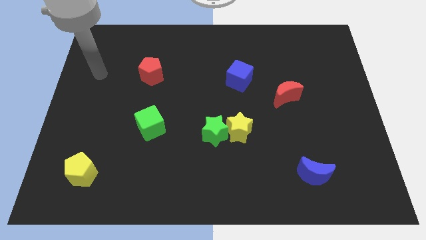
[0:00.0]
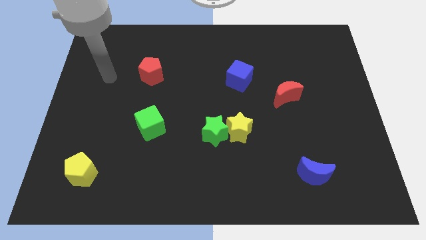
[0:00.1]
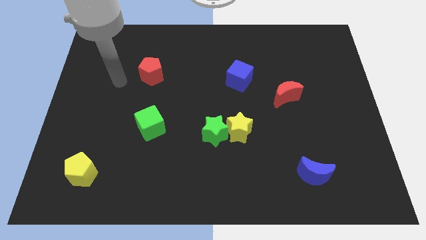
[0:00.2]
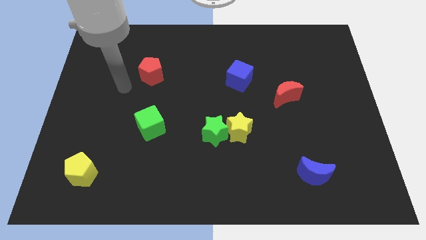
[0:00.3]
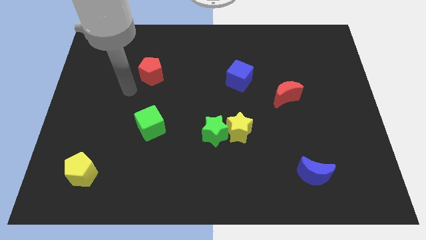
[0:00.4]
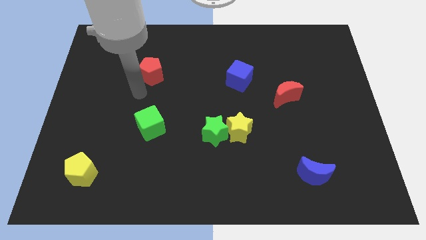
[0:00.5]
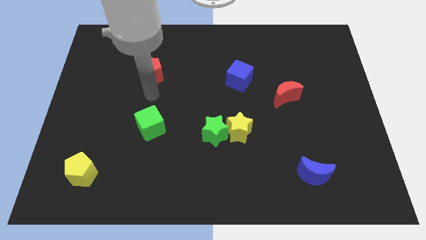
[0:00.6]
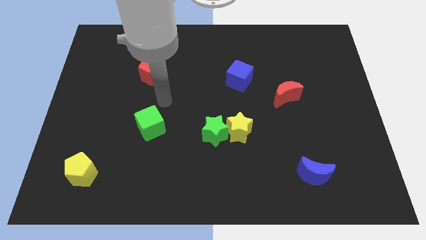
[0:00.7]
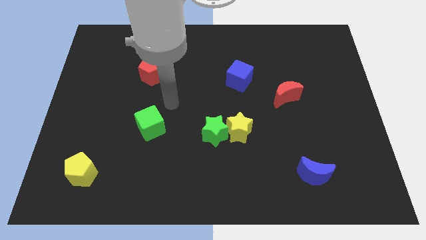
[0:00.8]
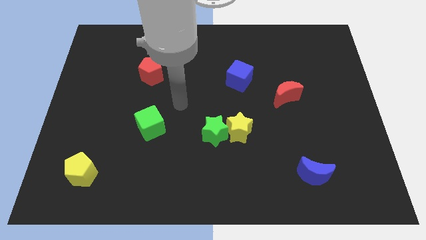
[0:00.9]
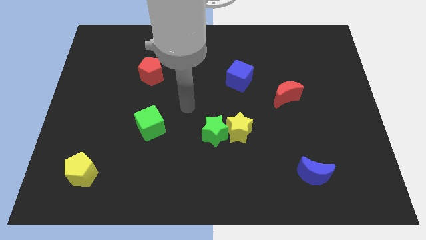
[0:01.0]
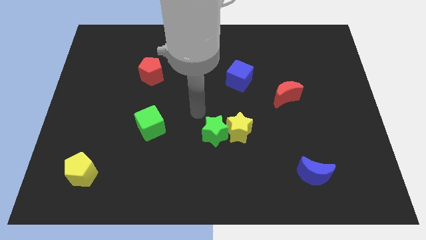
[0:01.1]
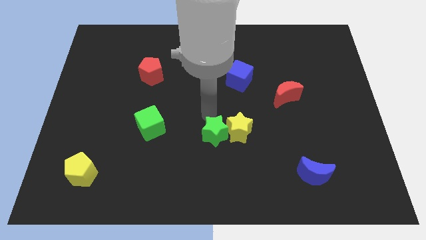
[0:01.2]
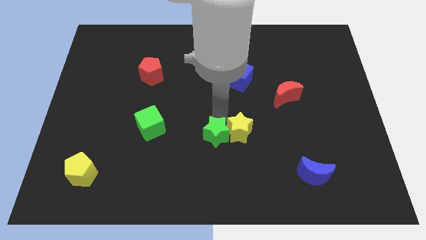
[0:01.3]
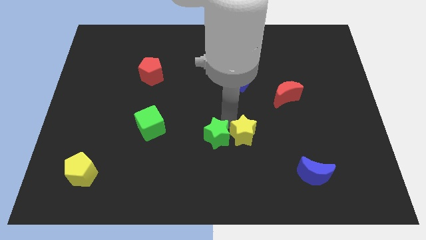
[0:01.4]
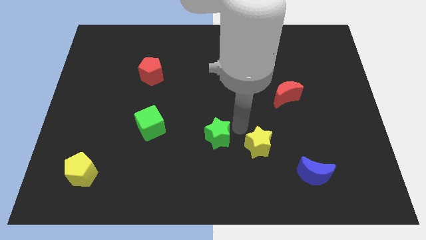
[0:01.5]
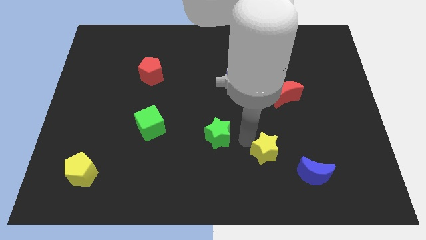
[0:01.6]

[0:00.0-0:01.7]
separate the green star from the yellow star

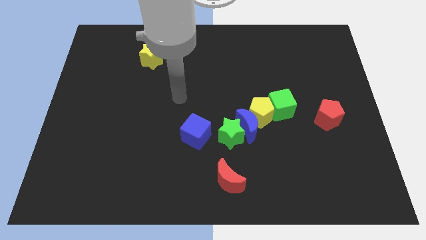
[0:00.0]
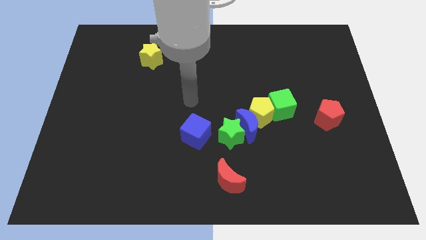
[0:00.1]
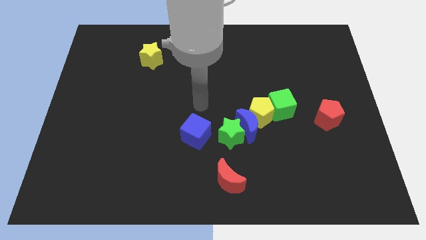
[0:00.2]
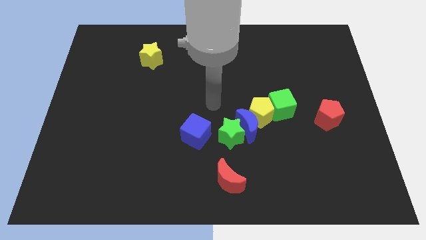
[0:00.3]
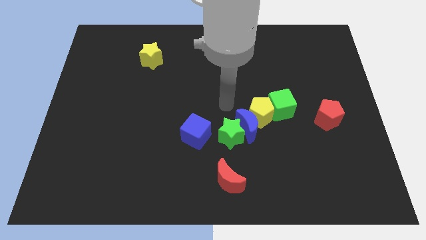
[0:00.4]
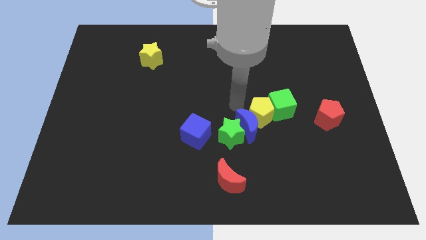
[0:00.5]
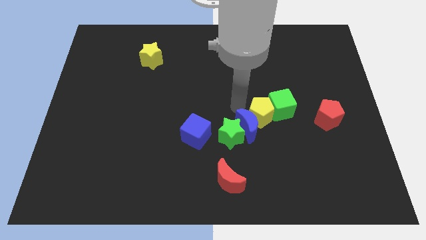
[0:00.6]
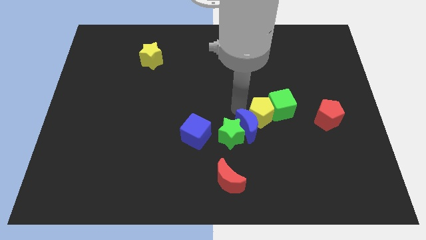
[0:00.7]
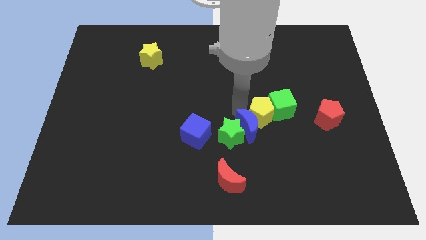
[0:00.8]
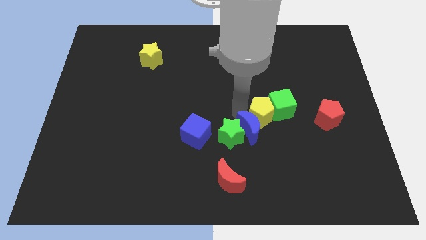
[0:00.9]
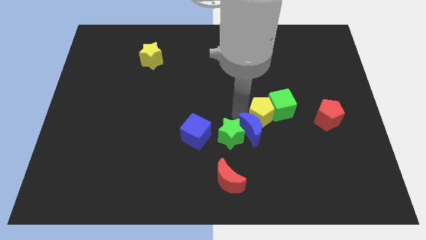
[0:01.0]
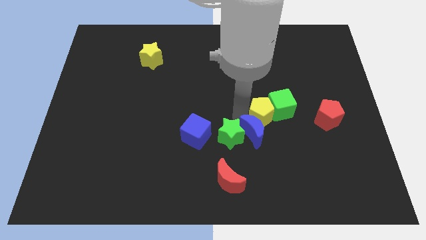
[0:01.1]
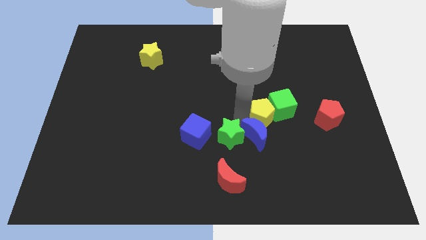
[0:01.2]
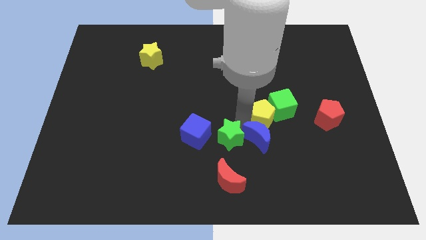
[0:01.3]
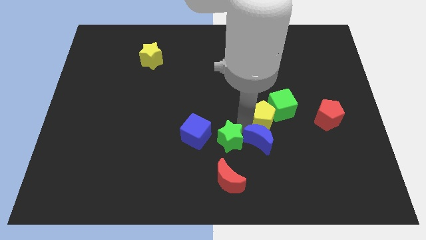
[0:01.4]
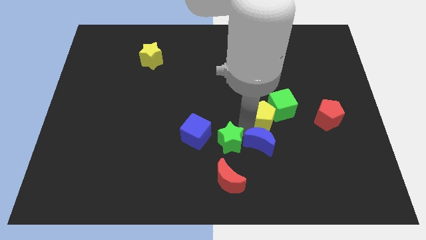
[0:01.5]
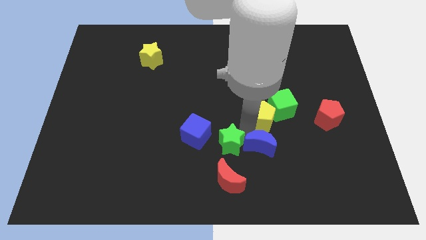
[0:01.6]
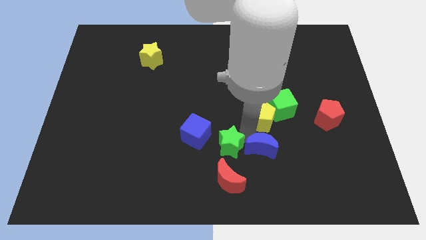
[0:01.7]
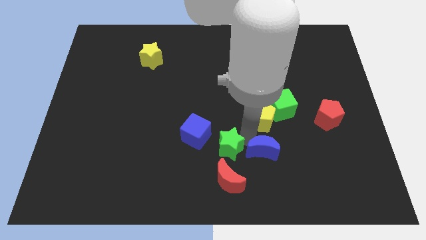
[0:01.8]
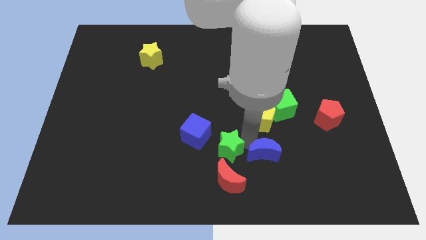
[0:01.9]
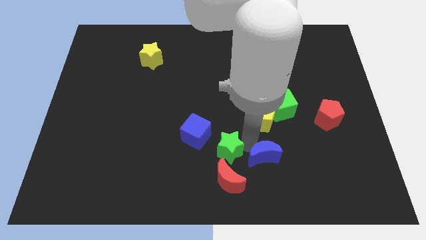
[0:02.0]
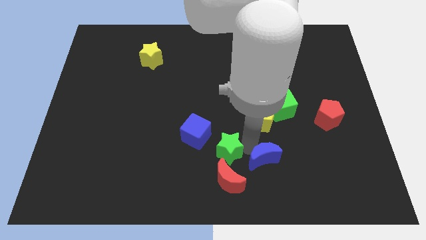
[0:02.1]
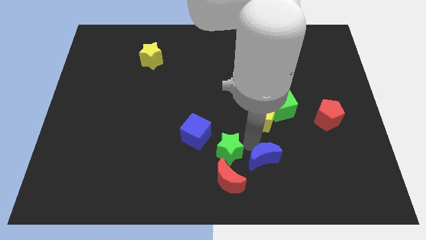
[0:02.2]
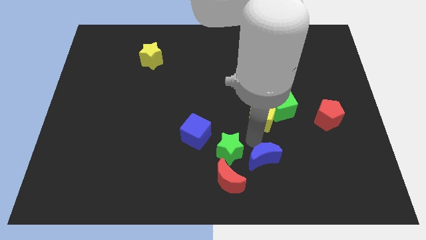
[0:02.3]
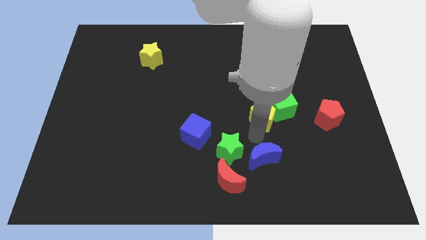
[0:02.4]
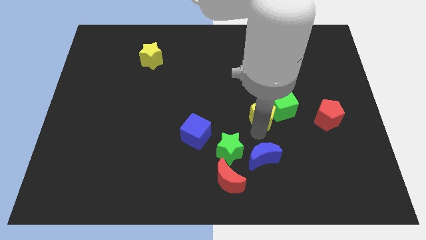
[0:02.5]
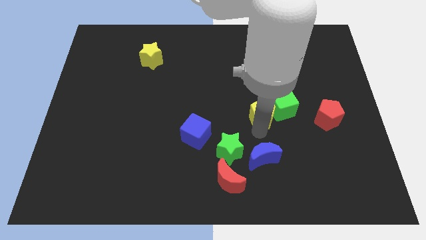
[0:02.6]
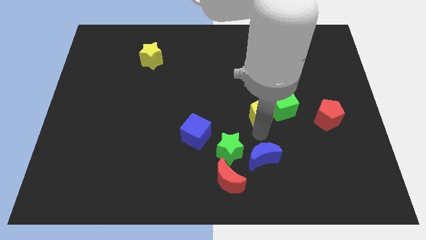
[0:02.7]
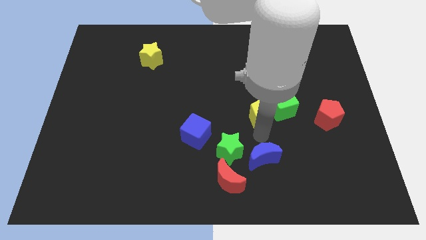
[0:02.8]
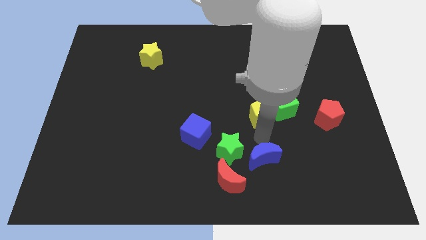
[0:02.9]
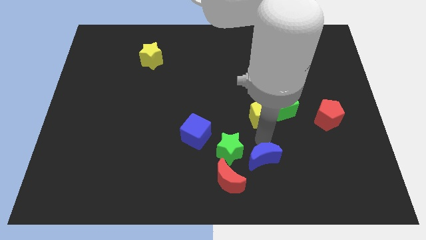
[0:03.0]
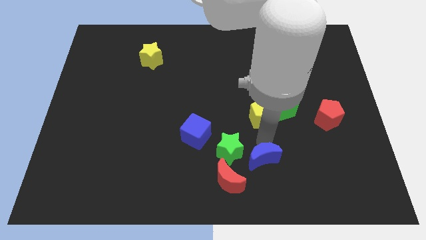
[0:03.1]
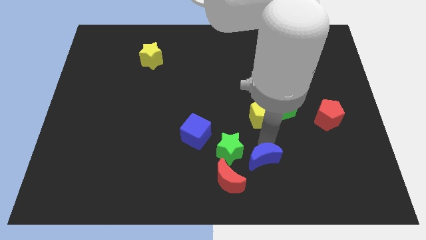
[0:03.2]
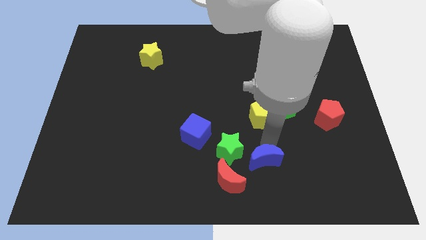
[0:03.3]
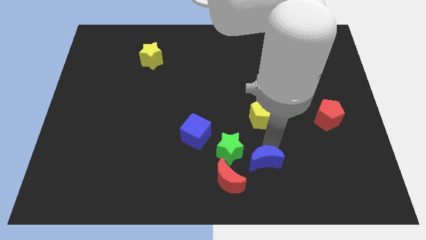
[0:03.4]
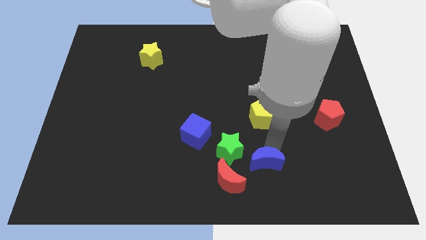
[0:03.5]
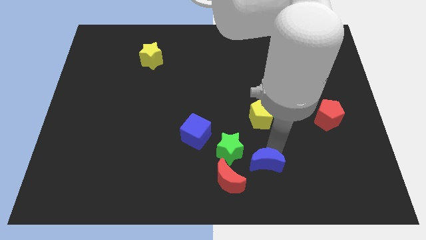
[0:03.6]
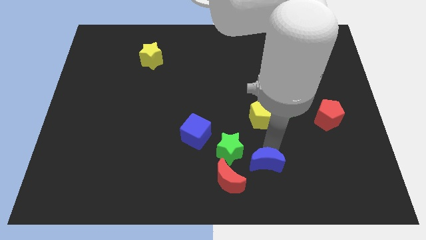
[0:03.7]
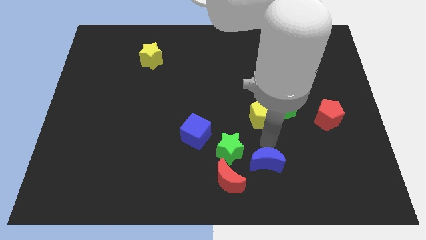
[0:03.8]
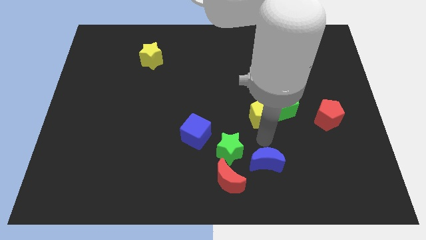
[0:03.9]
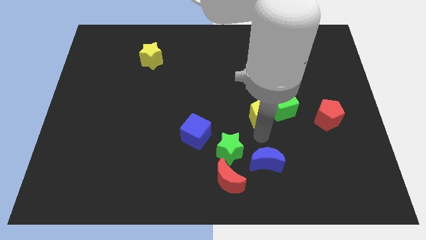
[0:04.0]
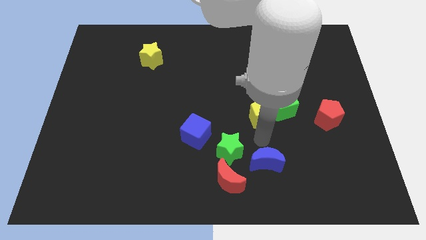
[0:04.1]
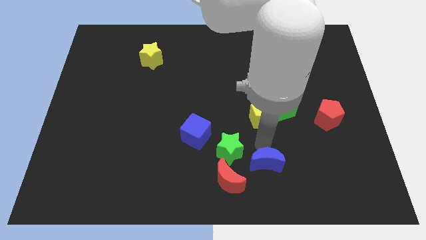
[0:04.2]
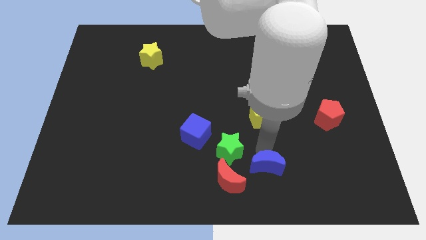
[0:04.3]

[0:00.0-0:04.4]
pull the blue moon apart from the green star, yellow pentagon, and green cube

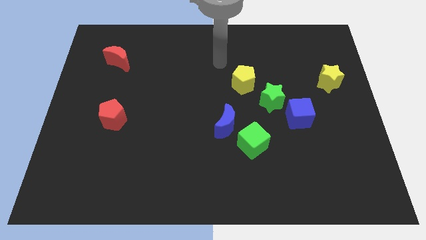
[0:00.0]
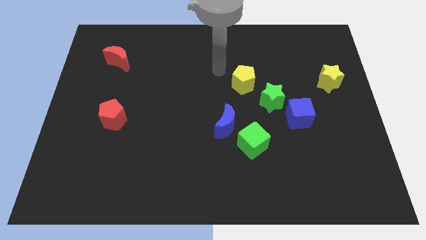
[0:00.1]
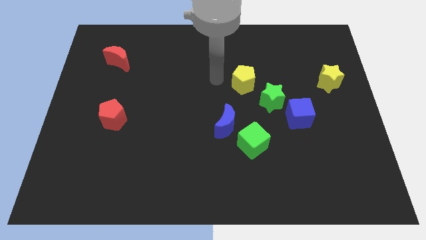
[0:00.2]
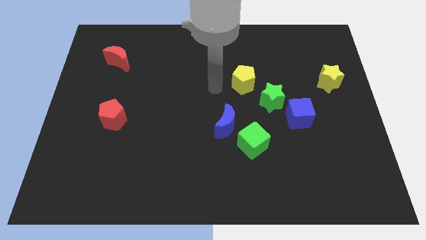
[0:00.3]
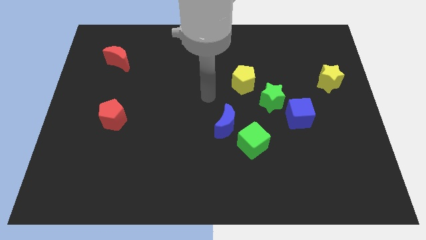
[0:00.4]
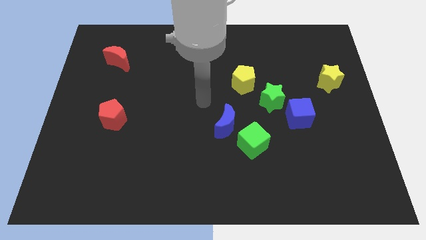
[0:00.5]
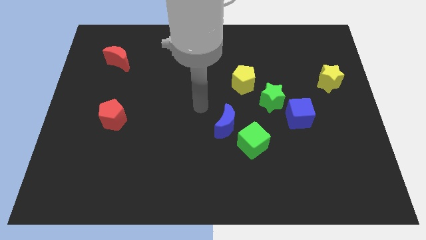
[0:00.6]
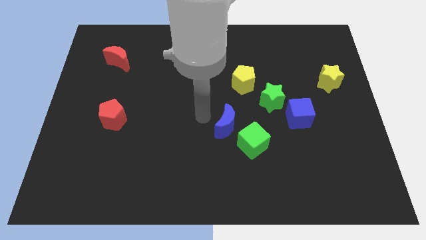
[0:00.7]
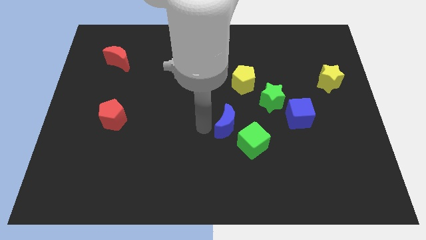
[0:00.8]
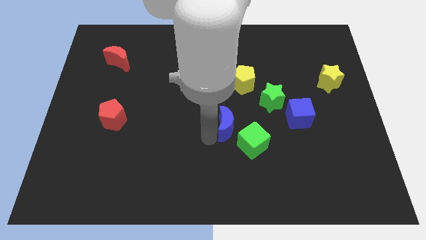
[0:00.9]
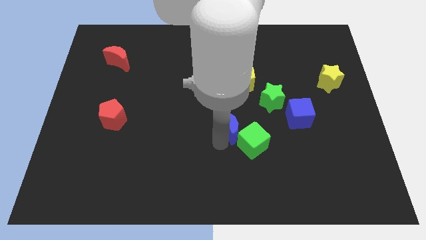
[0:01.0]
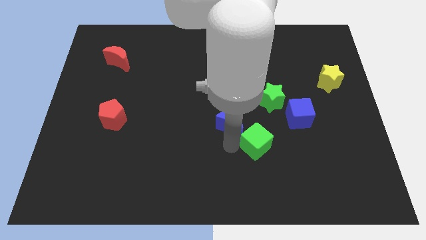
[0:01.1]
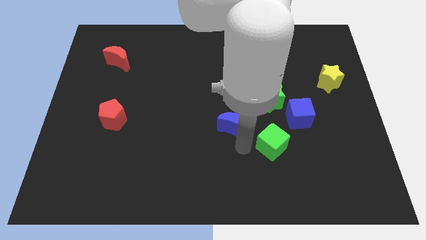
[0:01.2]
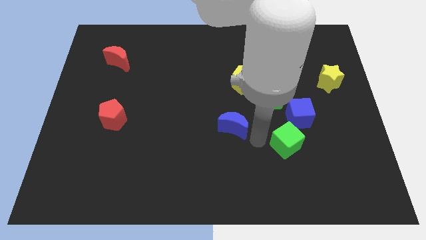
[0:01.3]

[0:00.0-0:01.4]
separate the blue moon from the green cube

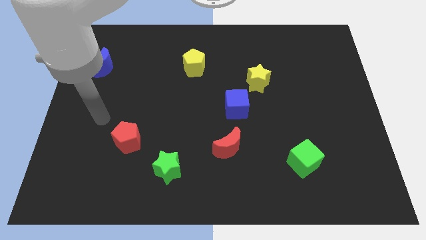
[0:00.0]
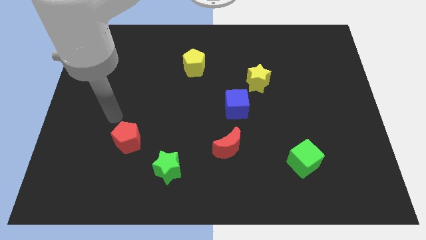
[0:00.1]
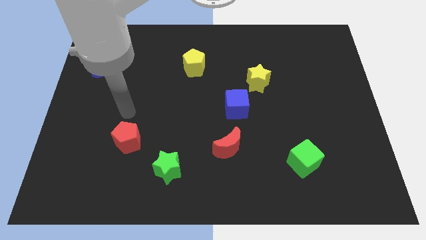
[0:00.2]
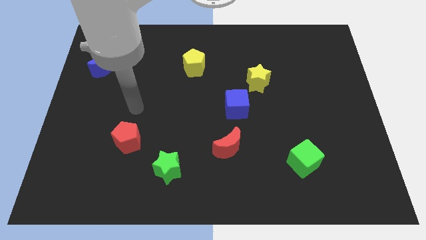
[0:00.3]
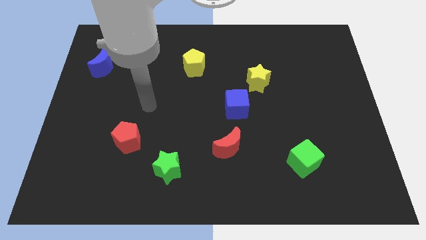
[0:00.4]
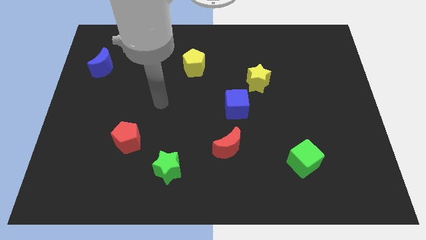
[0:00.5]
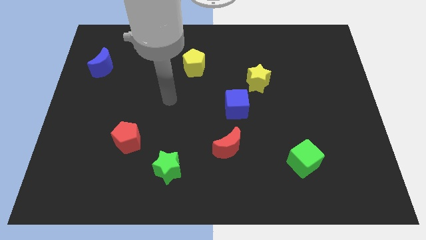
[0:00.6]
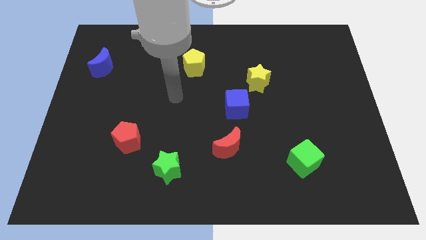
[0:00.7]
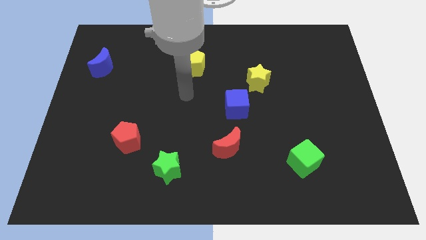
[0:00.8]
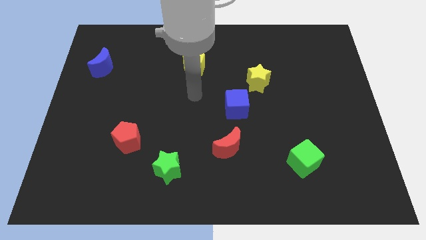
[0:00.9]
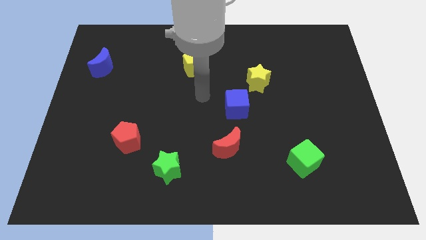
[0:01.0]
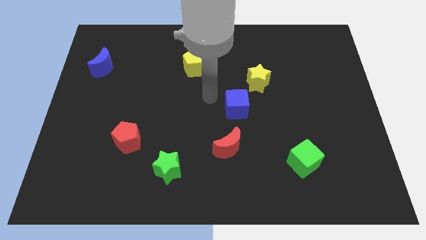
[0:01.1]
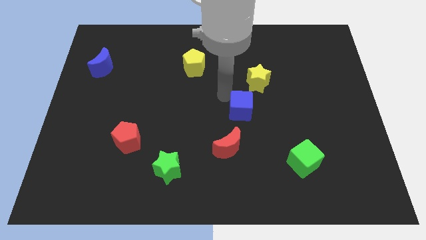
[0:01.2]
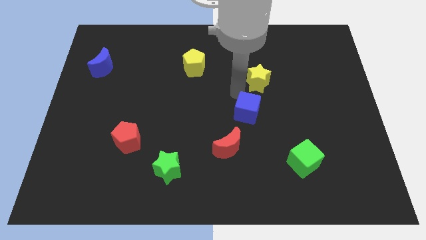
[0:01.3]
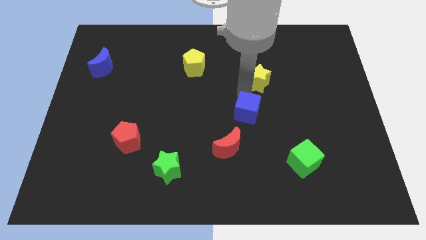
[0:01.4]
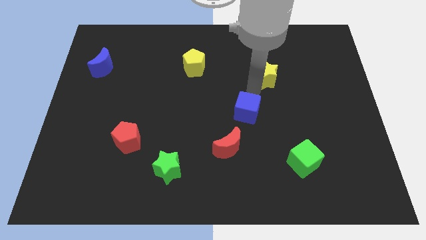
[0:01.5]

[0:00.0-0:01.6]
pull the blue cube apart from the yellow star

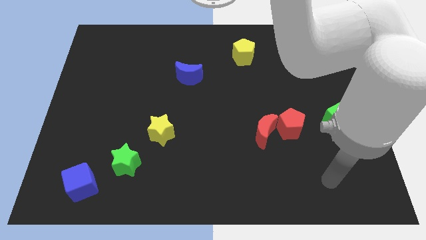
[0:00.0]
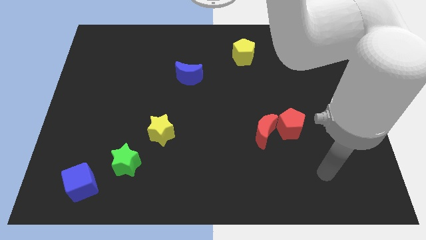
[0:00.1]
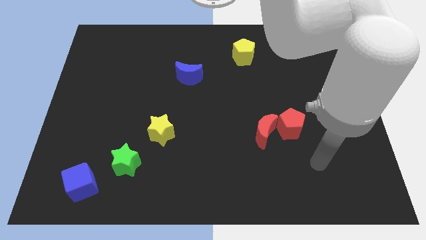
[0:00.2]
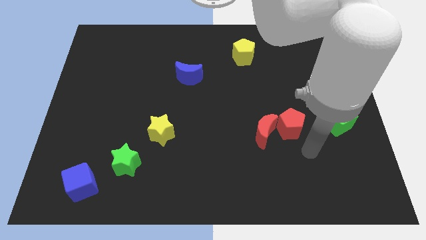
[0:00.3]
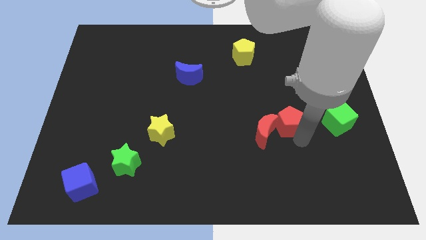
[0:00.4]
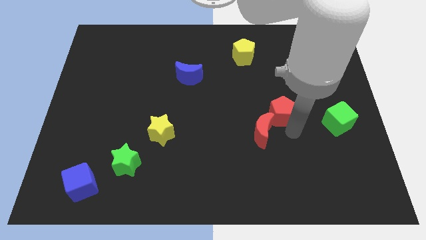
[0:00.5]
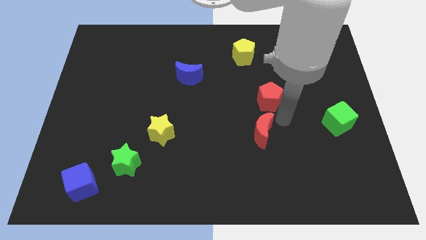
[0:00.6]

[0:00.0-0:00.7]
move the red moon away from the red pentagon
